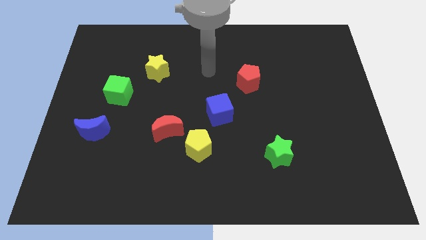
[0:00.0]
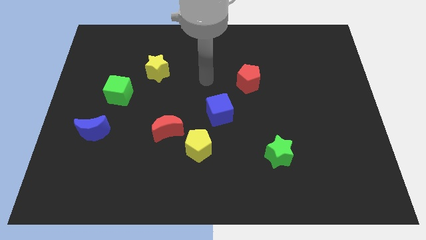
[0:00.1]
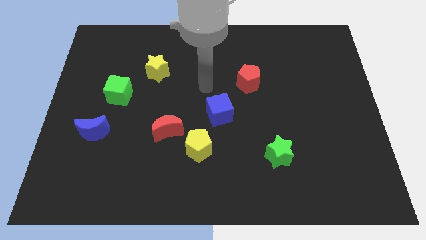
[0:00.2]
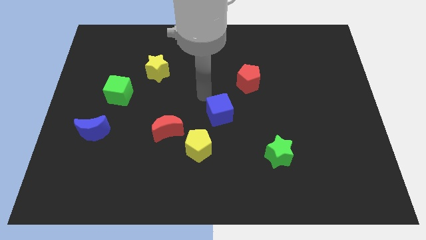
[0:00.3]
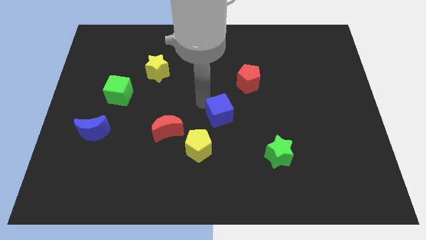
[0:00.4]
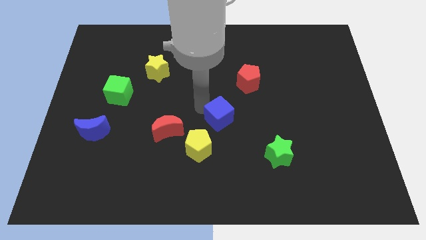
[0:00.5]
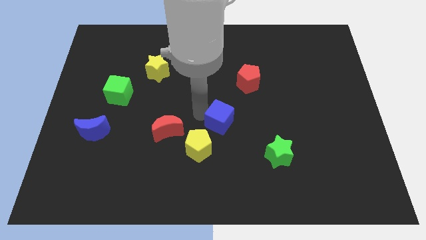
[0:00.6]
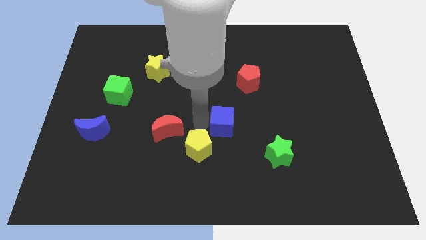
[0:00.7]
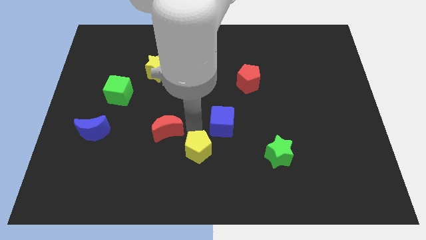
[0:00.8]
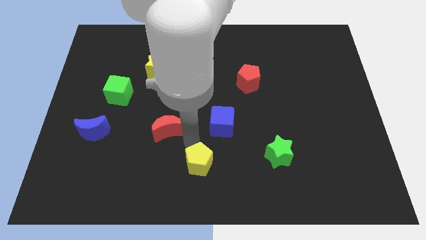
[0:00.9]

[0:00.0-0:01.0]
pull the red moon apart from the yellow pentagon

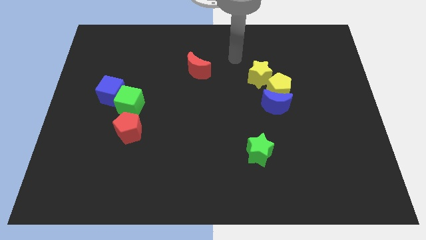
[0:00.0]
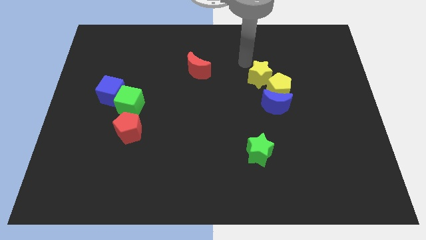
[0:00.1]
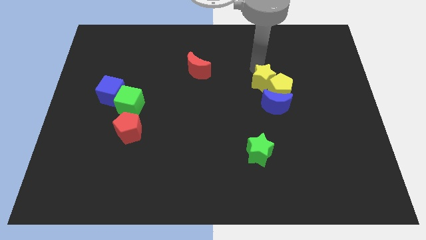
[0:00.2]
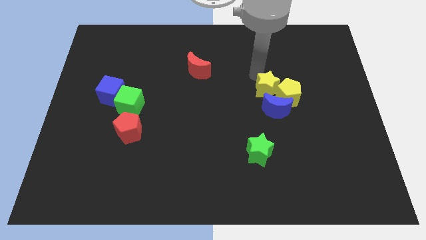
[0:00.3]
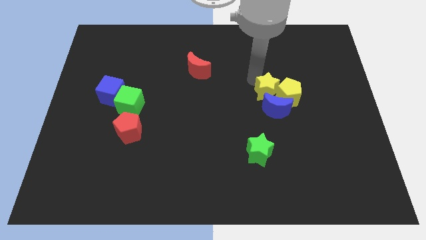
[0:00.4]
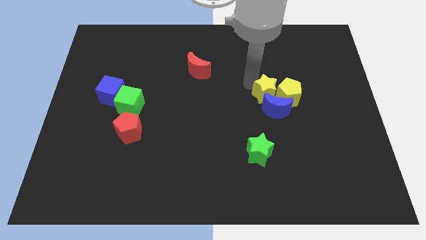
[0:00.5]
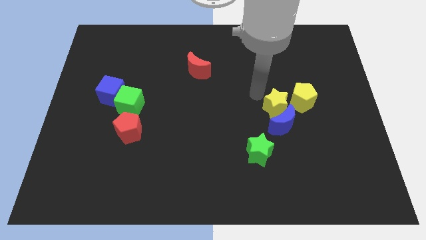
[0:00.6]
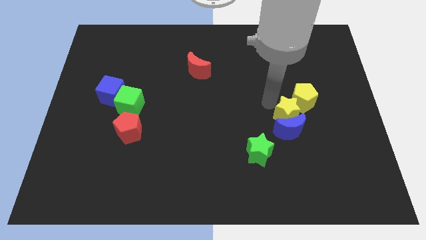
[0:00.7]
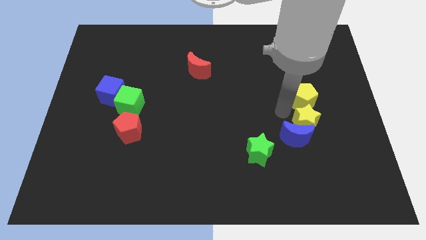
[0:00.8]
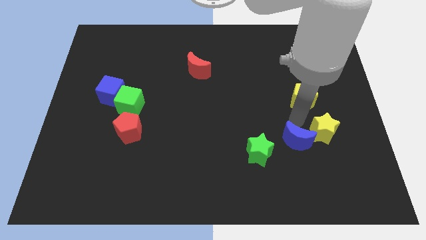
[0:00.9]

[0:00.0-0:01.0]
pull the yellow pentagon apart from the blue moon and yellow star

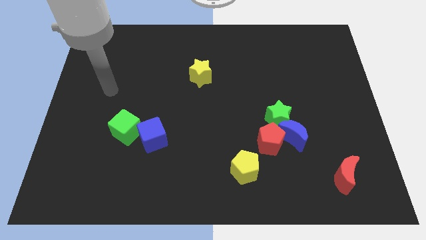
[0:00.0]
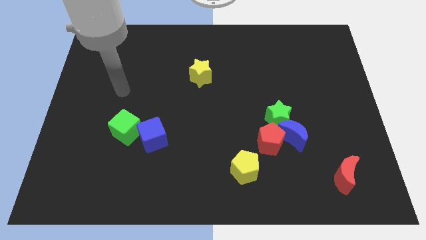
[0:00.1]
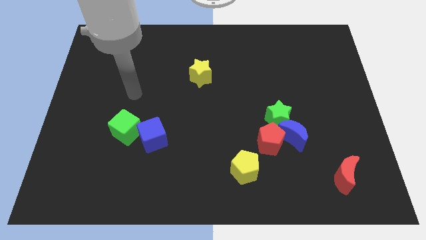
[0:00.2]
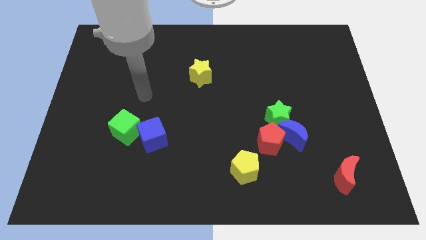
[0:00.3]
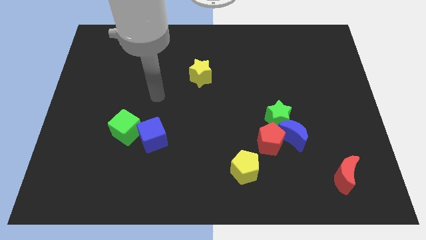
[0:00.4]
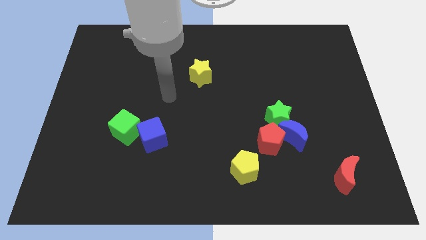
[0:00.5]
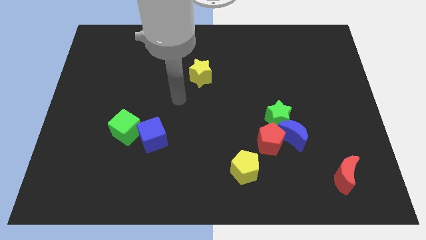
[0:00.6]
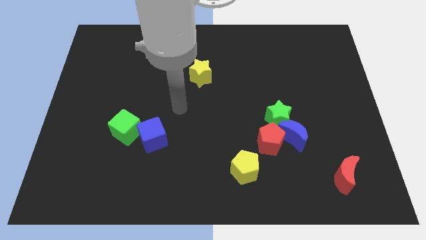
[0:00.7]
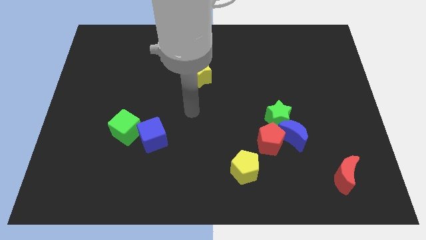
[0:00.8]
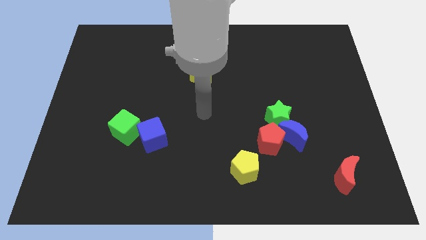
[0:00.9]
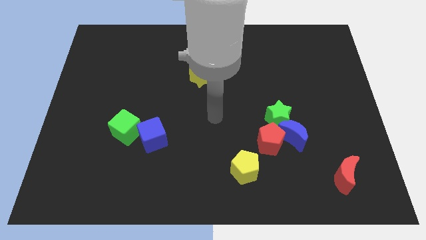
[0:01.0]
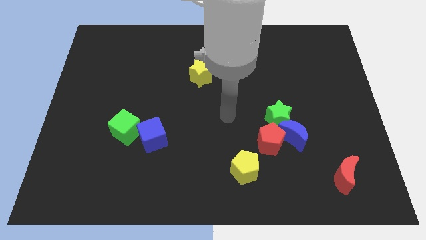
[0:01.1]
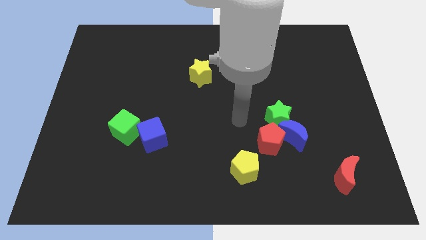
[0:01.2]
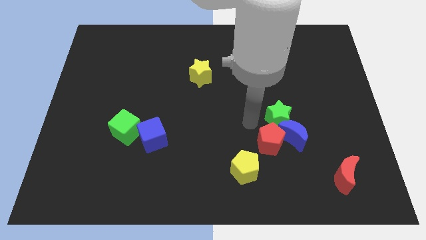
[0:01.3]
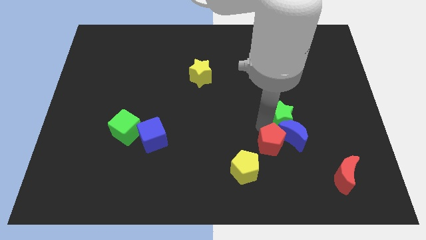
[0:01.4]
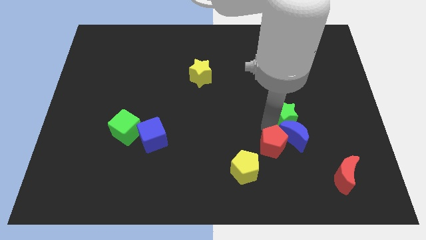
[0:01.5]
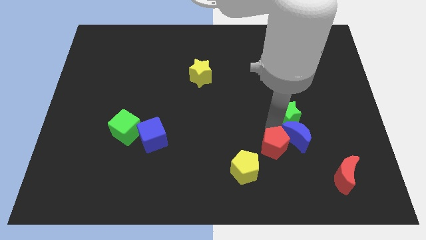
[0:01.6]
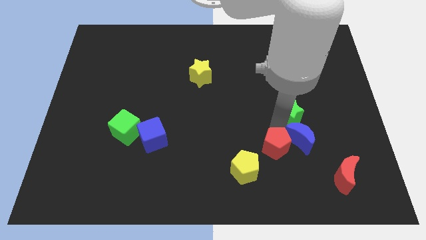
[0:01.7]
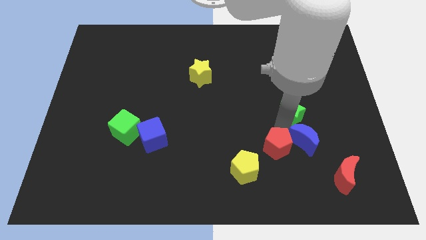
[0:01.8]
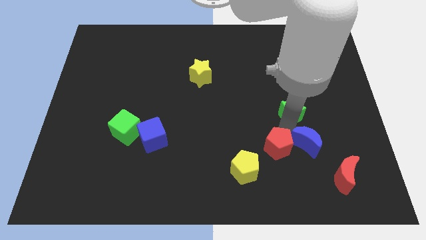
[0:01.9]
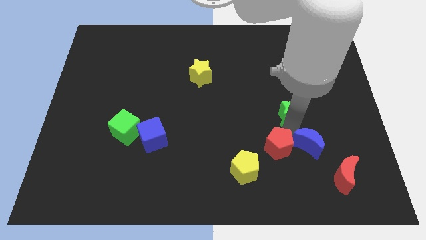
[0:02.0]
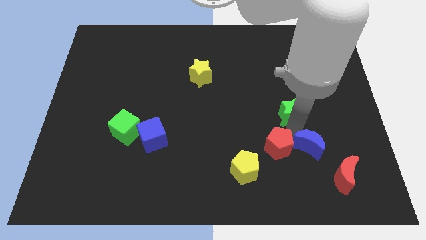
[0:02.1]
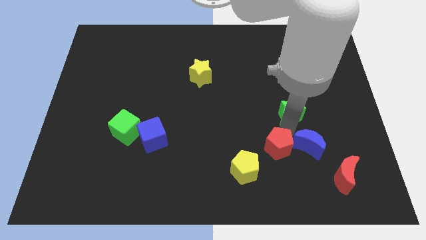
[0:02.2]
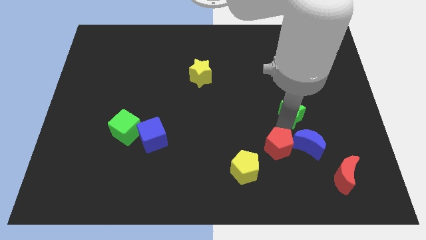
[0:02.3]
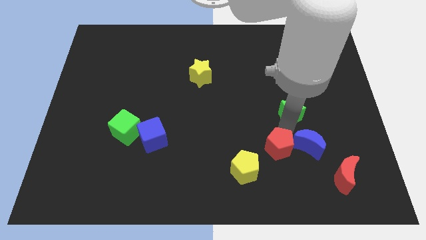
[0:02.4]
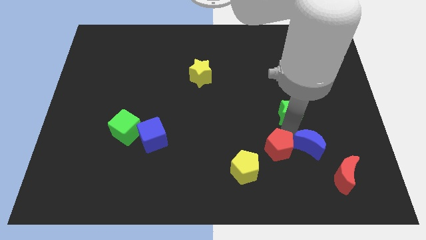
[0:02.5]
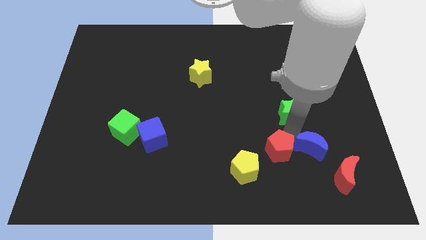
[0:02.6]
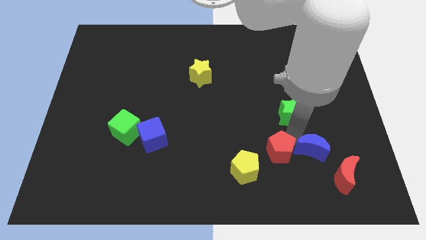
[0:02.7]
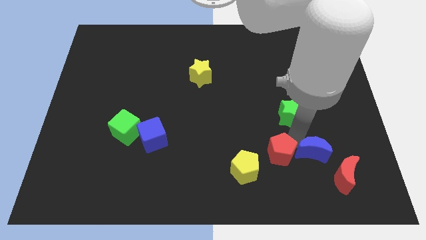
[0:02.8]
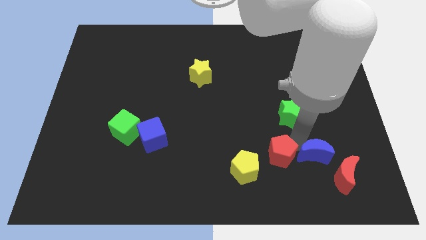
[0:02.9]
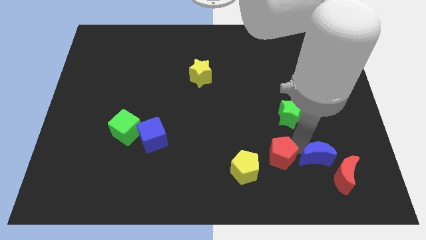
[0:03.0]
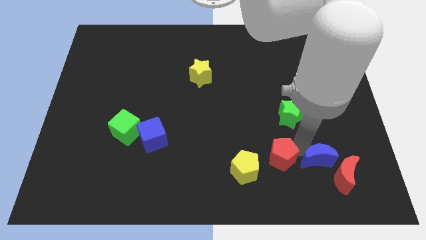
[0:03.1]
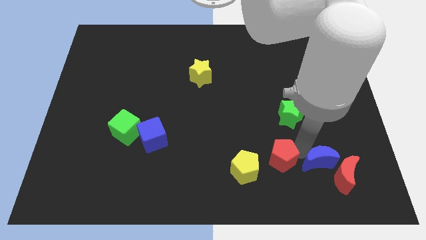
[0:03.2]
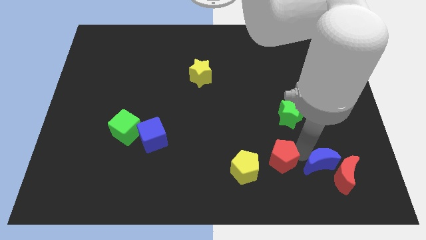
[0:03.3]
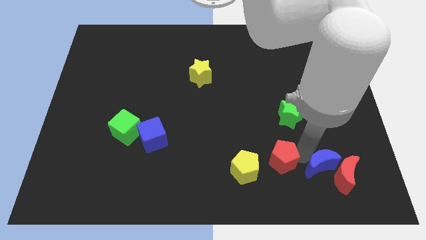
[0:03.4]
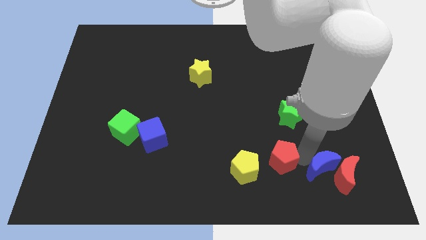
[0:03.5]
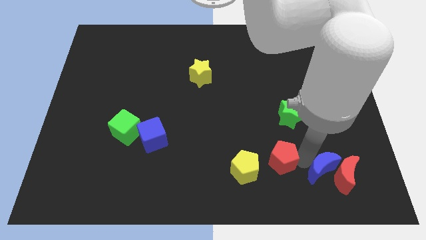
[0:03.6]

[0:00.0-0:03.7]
move the blue moon away from the red pentagon and green star

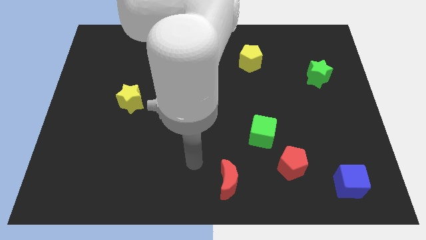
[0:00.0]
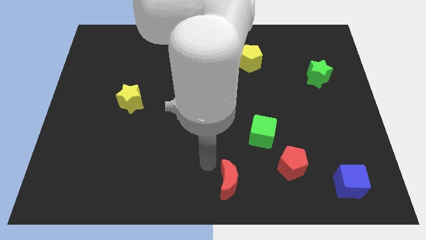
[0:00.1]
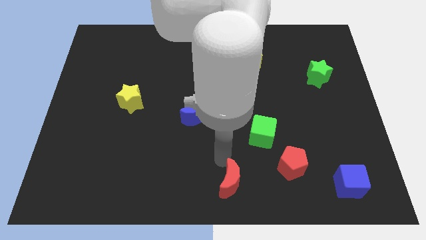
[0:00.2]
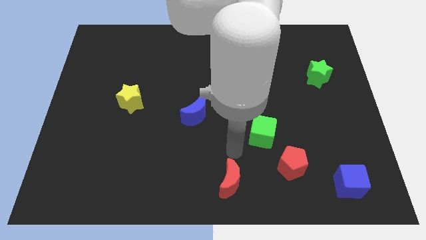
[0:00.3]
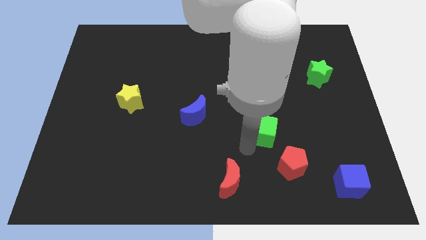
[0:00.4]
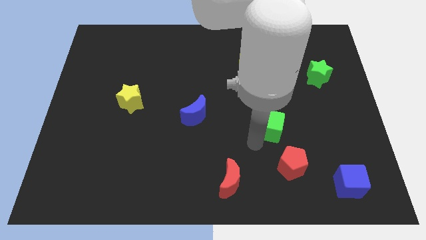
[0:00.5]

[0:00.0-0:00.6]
move the red pentagon away from the green cube

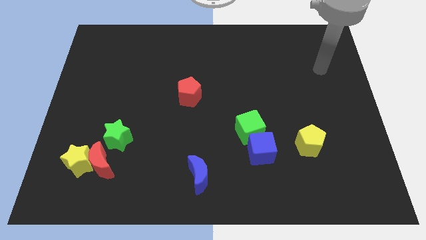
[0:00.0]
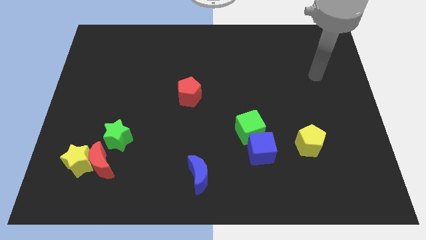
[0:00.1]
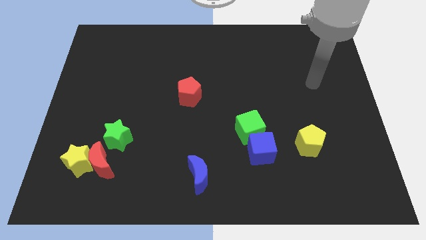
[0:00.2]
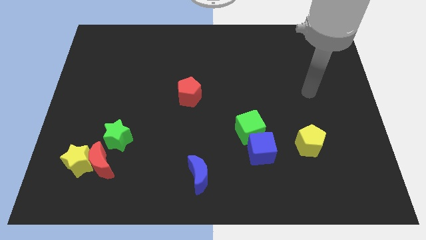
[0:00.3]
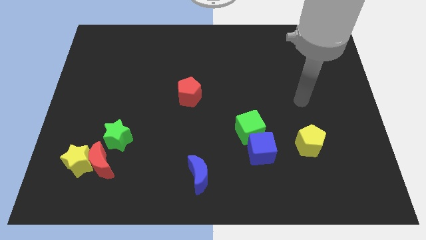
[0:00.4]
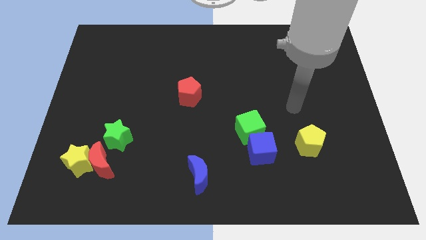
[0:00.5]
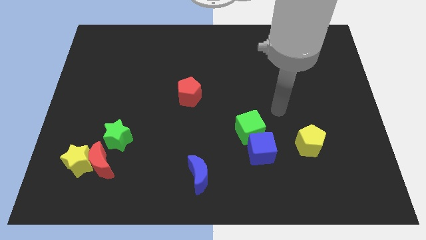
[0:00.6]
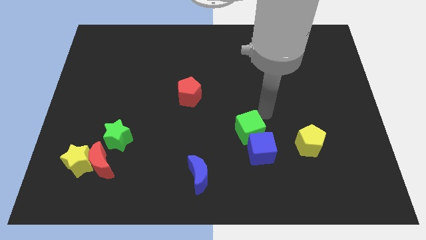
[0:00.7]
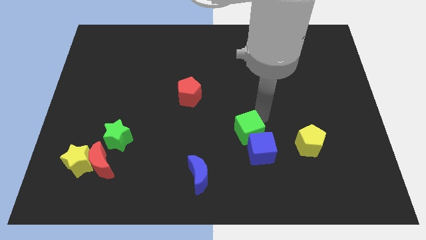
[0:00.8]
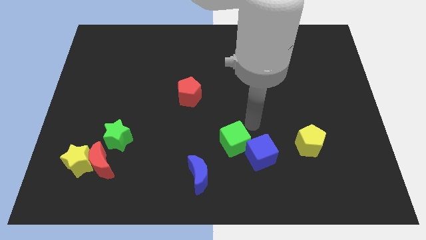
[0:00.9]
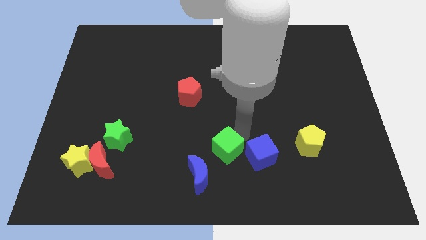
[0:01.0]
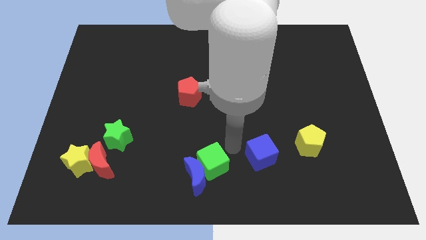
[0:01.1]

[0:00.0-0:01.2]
pull the blue cube apart from the green cube

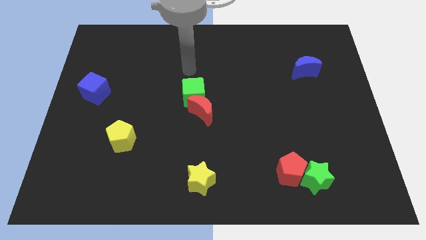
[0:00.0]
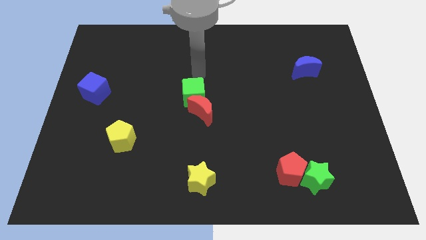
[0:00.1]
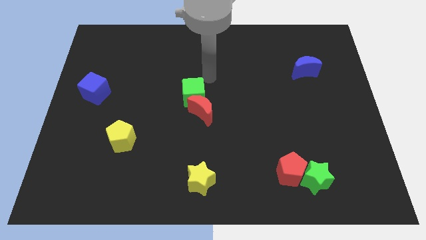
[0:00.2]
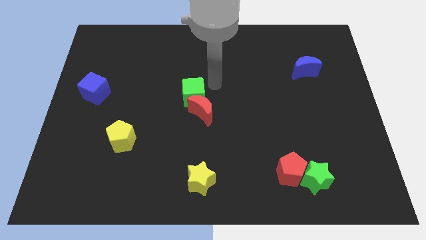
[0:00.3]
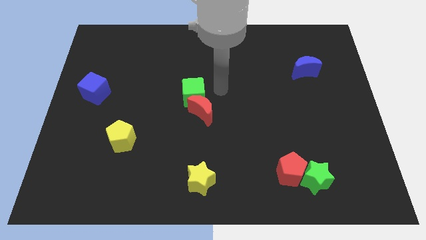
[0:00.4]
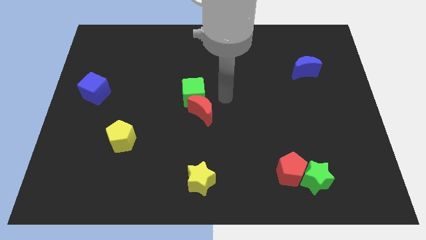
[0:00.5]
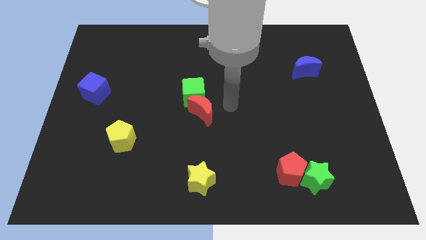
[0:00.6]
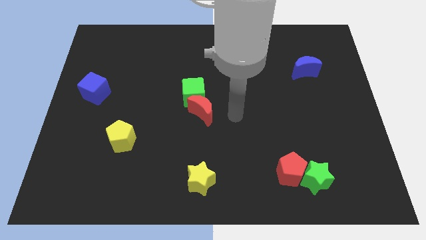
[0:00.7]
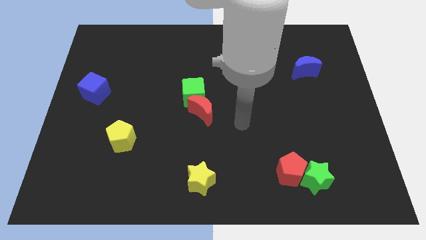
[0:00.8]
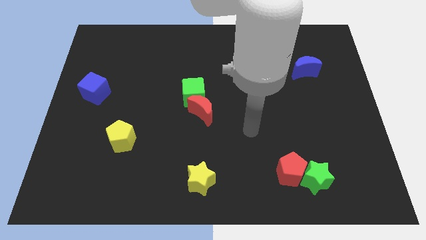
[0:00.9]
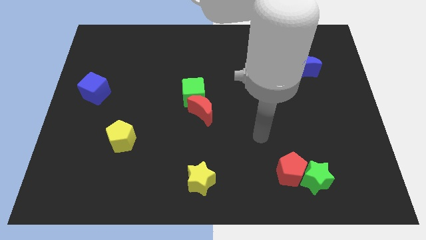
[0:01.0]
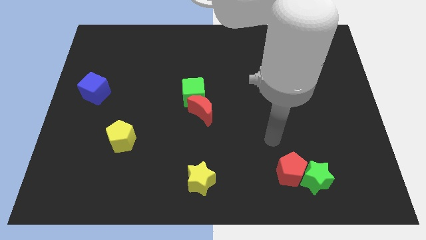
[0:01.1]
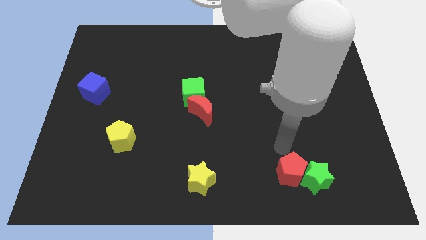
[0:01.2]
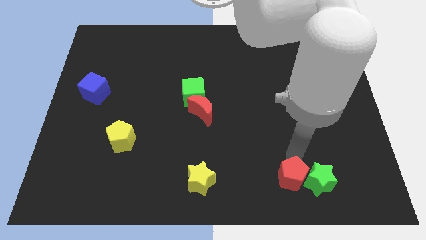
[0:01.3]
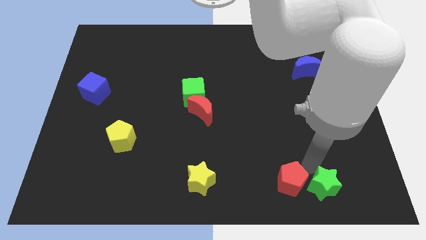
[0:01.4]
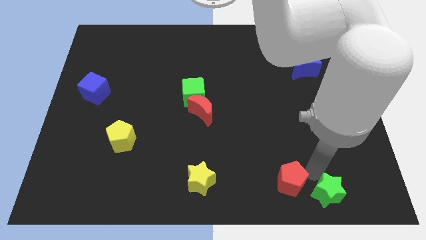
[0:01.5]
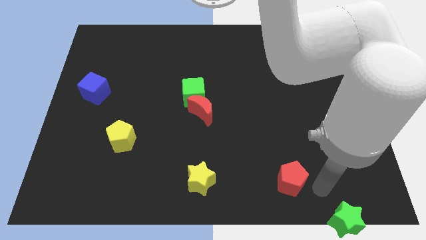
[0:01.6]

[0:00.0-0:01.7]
move the red pentagon away from the green star

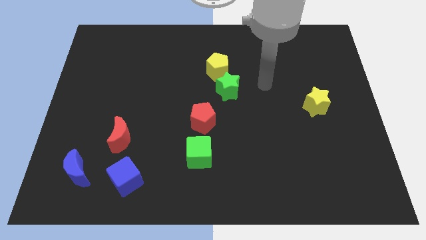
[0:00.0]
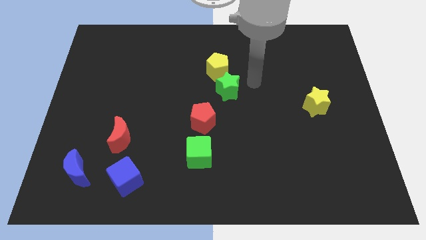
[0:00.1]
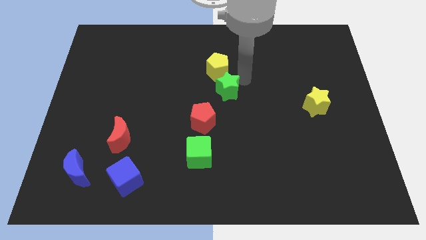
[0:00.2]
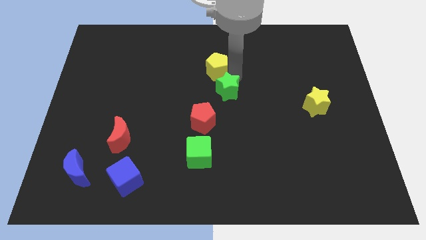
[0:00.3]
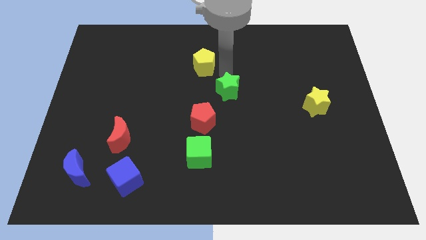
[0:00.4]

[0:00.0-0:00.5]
separate the green star from the yellow pentagon
